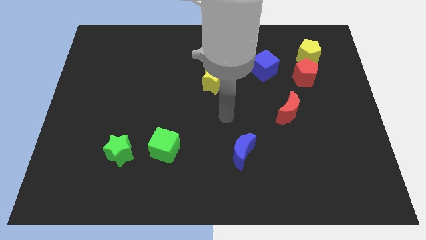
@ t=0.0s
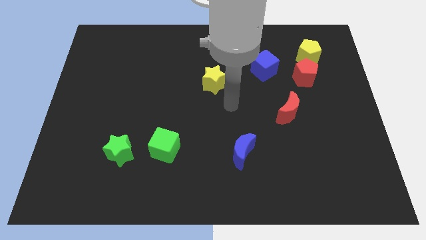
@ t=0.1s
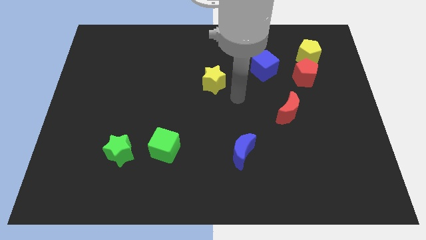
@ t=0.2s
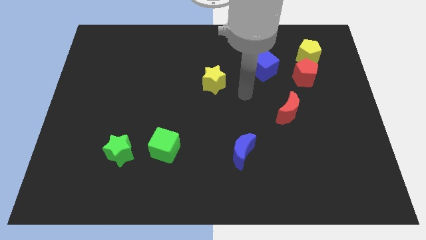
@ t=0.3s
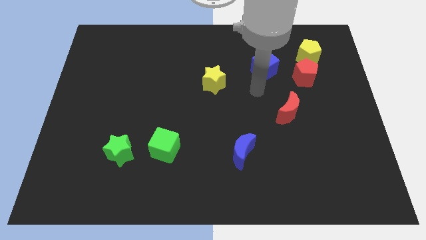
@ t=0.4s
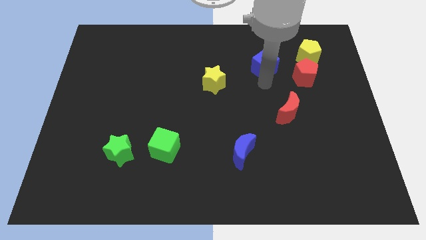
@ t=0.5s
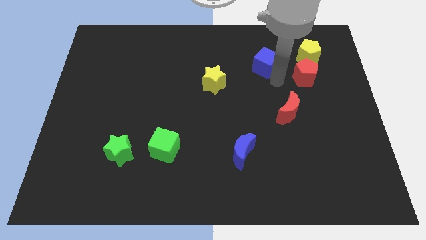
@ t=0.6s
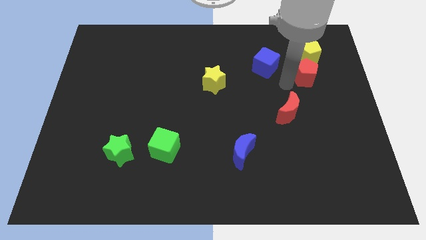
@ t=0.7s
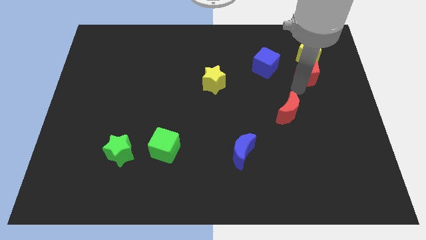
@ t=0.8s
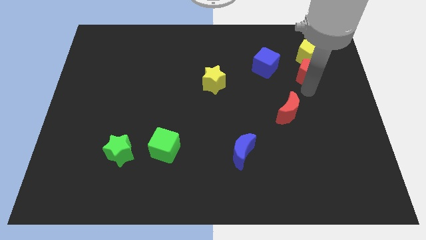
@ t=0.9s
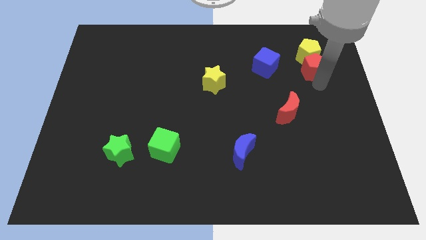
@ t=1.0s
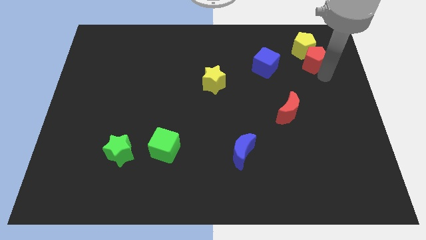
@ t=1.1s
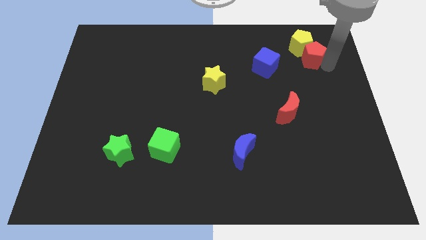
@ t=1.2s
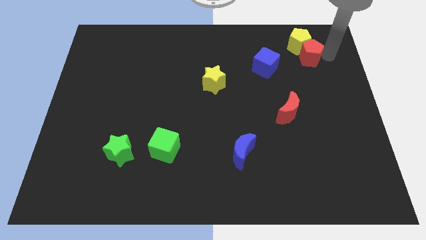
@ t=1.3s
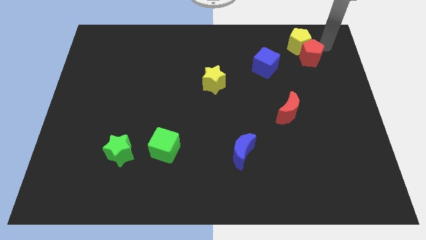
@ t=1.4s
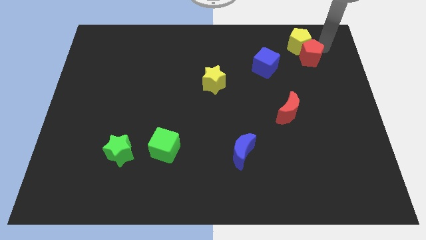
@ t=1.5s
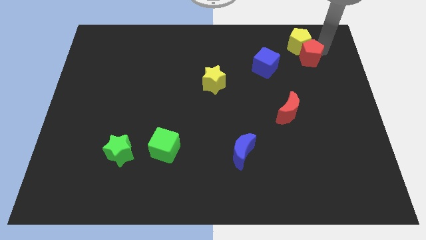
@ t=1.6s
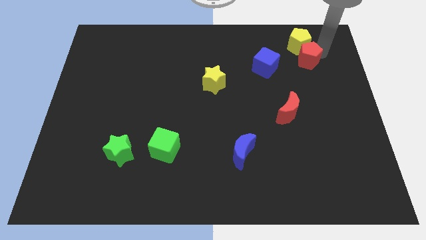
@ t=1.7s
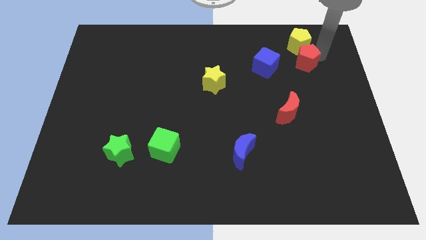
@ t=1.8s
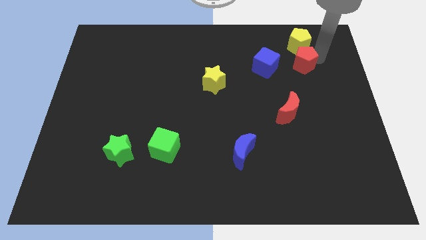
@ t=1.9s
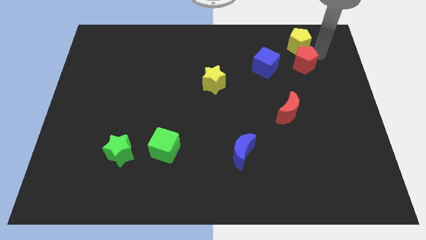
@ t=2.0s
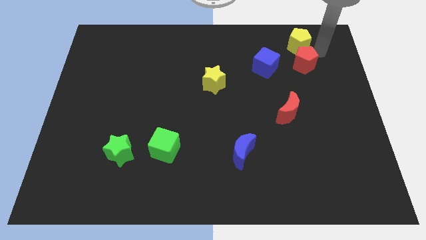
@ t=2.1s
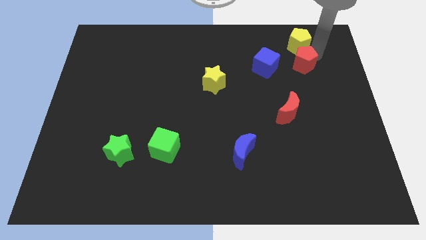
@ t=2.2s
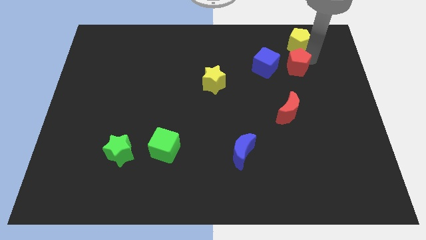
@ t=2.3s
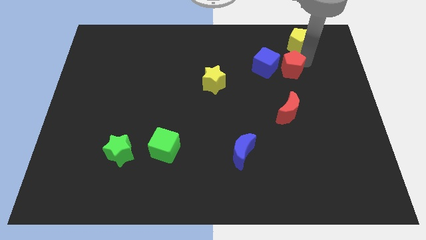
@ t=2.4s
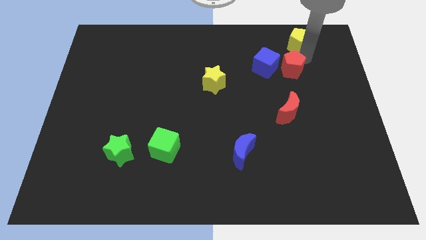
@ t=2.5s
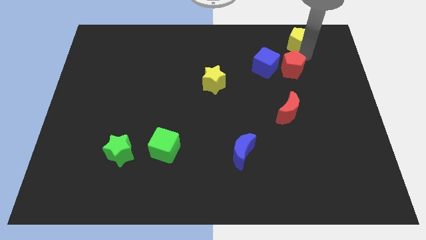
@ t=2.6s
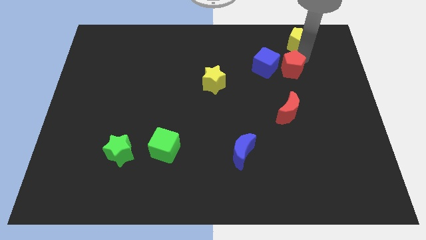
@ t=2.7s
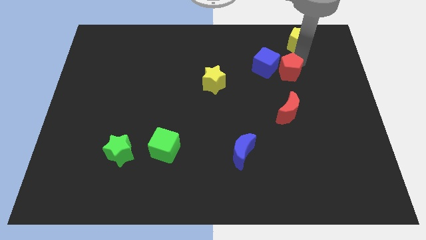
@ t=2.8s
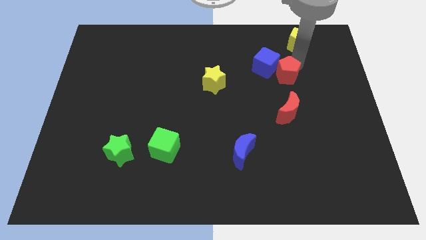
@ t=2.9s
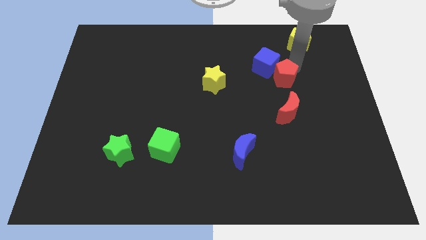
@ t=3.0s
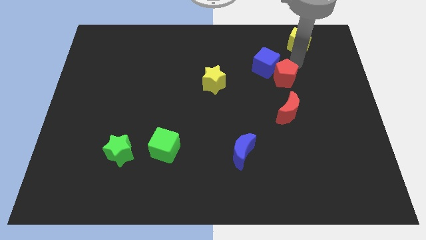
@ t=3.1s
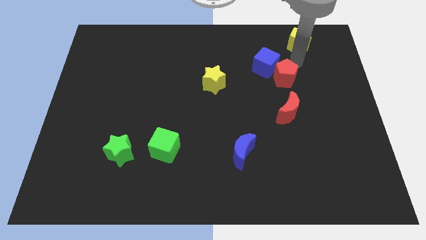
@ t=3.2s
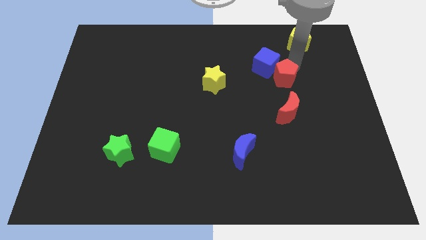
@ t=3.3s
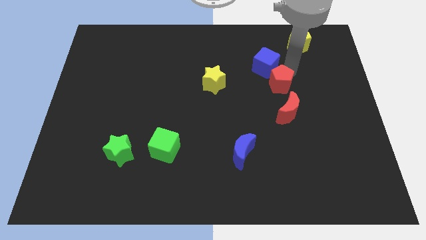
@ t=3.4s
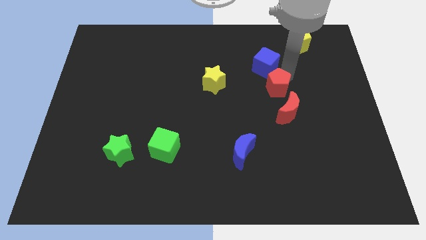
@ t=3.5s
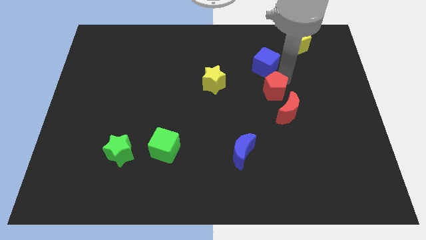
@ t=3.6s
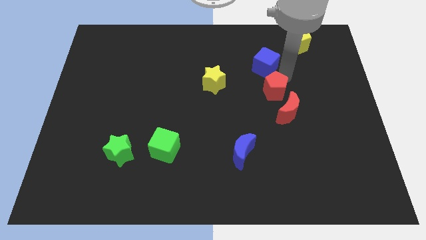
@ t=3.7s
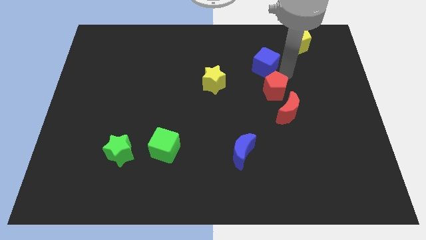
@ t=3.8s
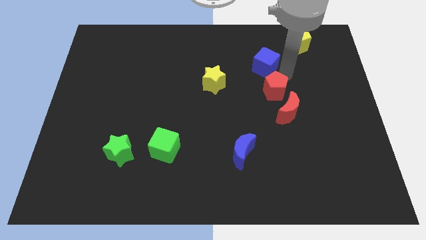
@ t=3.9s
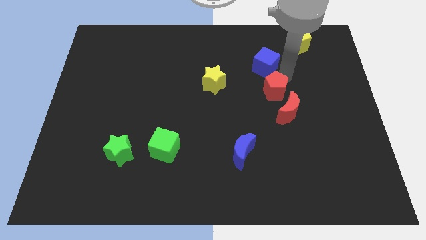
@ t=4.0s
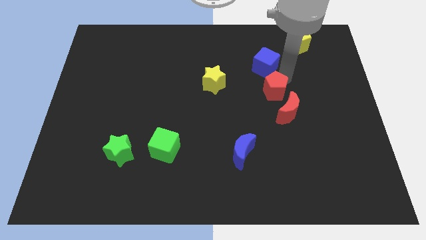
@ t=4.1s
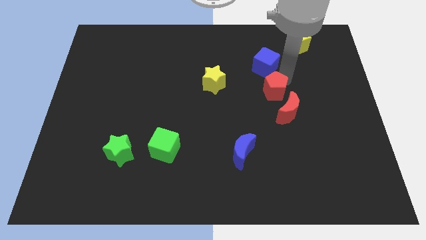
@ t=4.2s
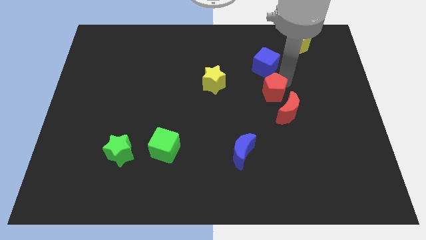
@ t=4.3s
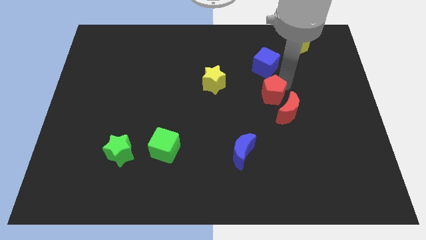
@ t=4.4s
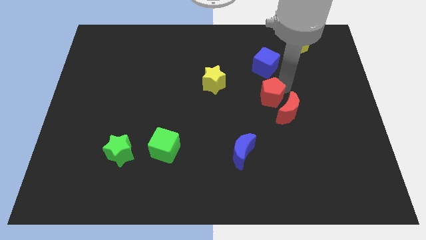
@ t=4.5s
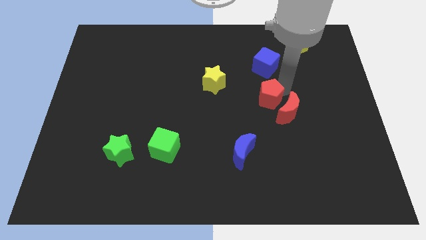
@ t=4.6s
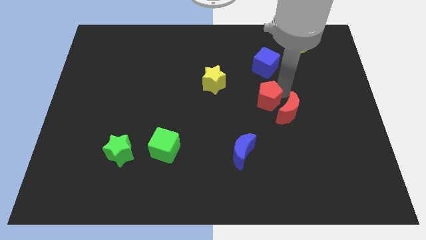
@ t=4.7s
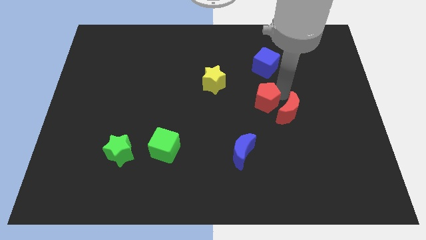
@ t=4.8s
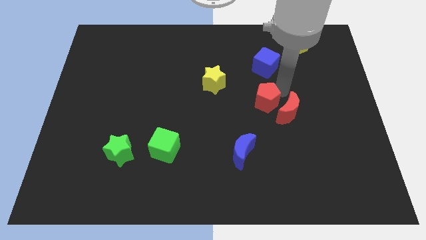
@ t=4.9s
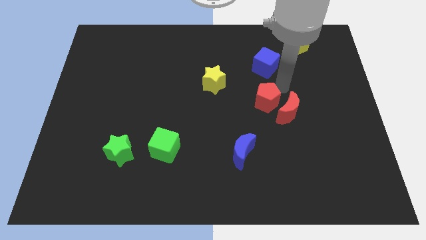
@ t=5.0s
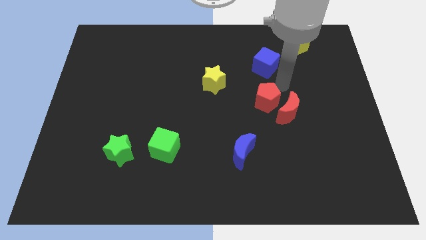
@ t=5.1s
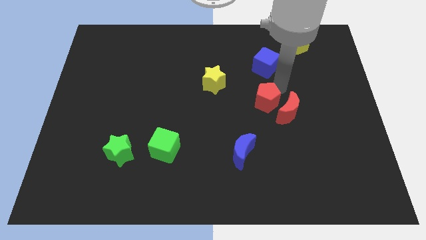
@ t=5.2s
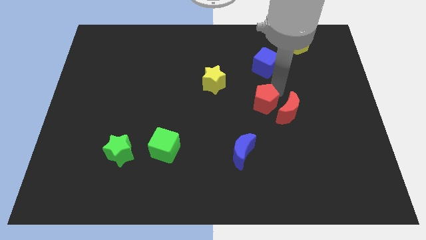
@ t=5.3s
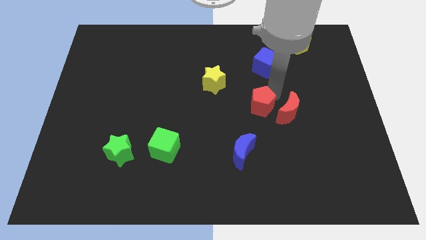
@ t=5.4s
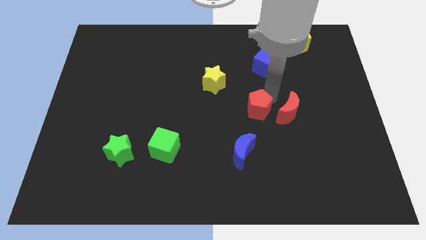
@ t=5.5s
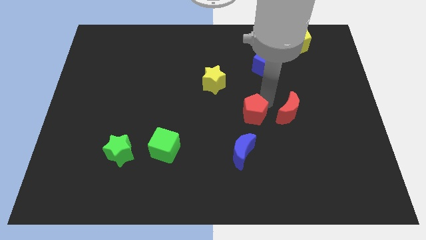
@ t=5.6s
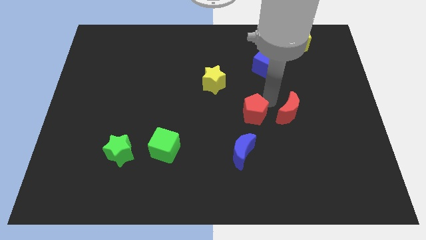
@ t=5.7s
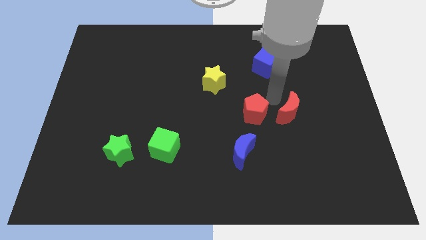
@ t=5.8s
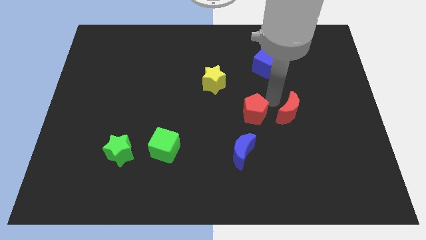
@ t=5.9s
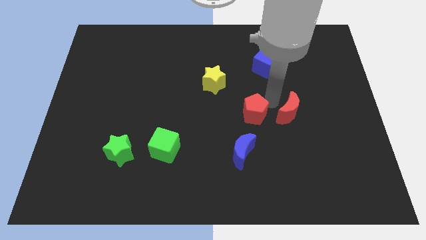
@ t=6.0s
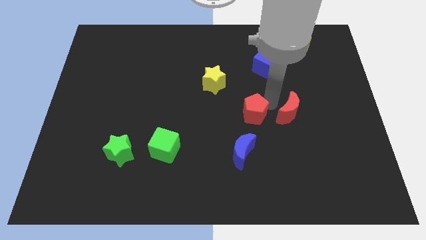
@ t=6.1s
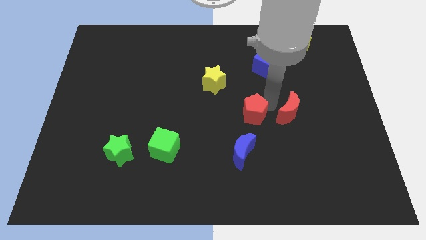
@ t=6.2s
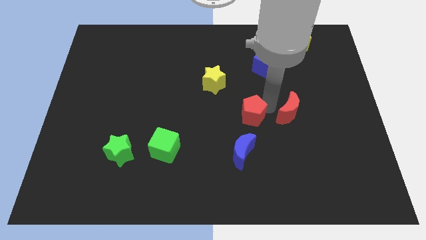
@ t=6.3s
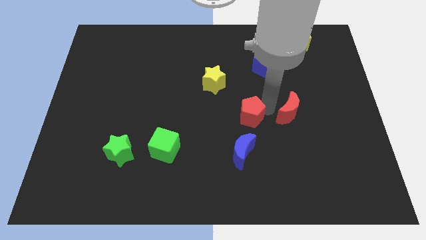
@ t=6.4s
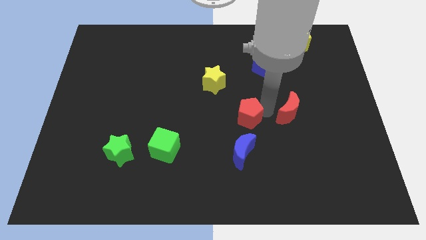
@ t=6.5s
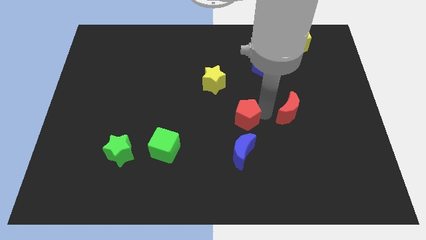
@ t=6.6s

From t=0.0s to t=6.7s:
move the red pentagon downwards and to the left diagonally

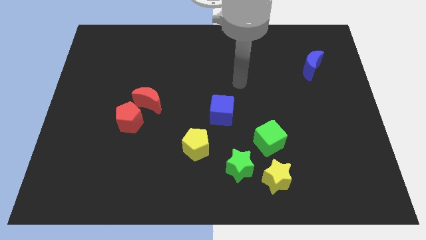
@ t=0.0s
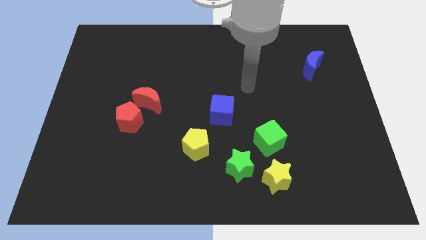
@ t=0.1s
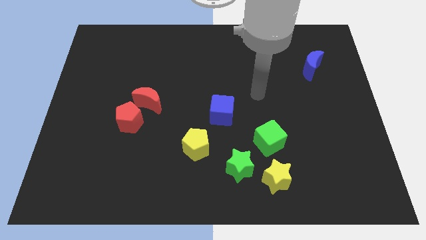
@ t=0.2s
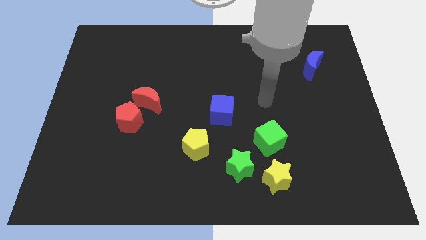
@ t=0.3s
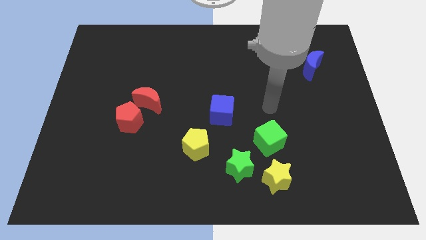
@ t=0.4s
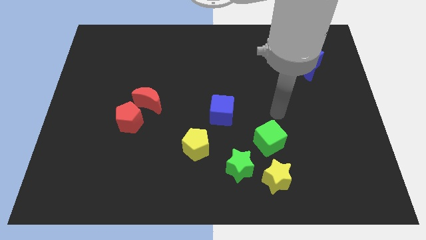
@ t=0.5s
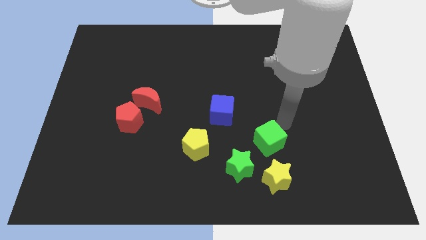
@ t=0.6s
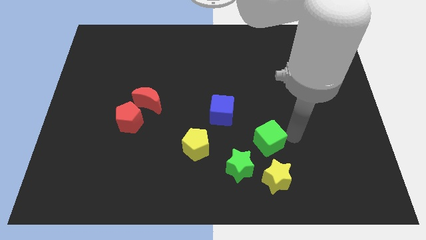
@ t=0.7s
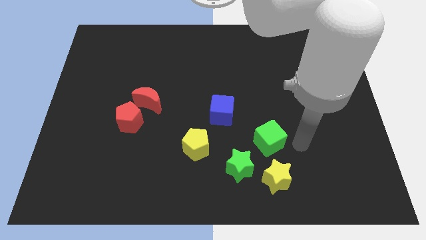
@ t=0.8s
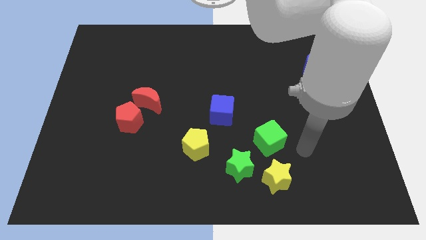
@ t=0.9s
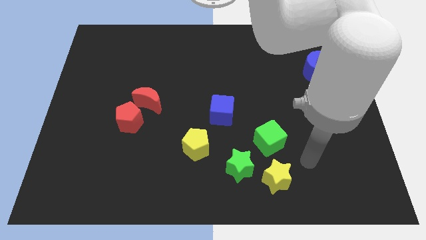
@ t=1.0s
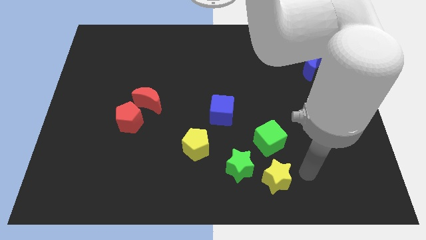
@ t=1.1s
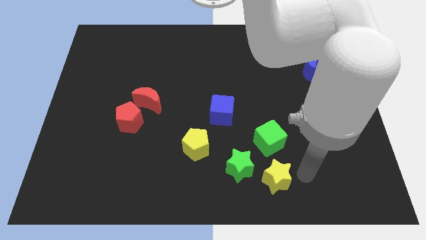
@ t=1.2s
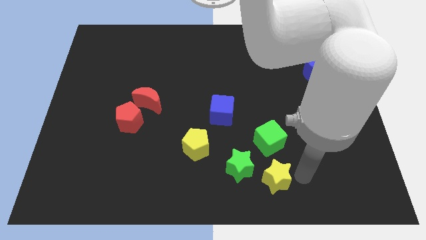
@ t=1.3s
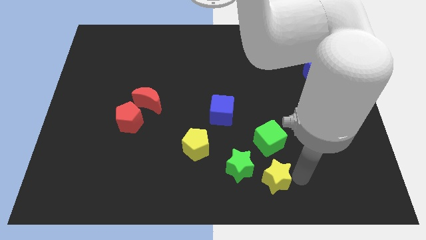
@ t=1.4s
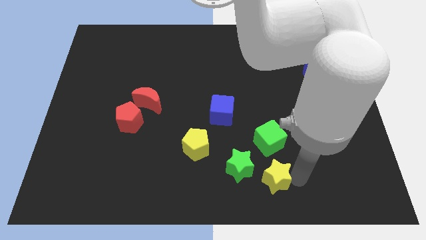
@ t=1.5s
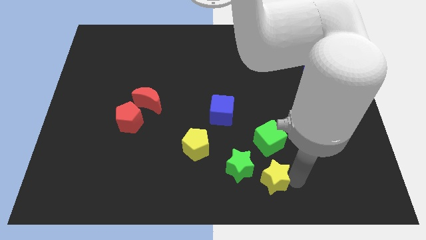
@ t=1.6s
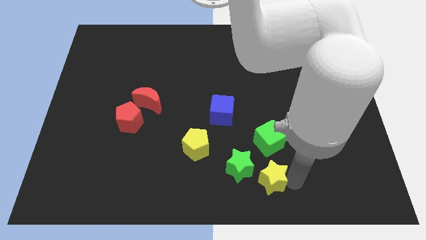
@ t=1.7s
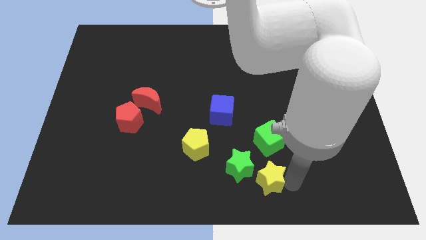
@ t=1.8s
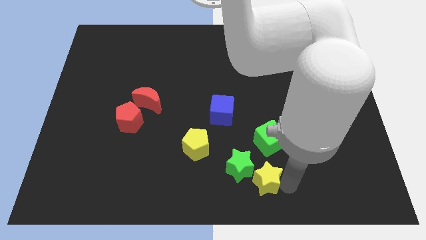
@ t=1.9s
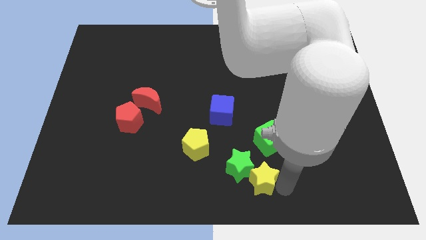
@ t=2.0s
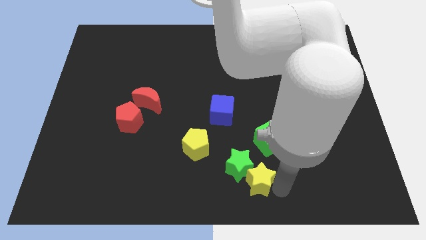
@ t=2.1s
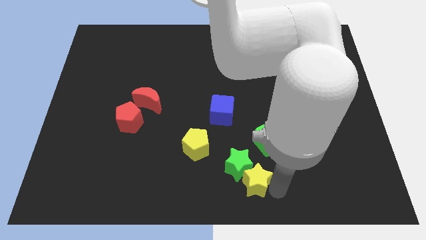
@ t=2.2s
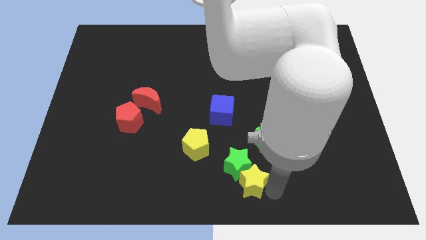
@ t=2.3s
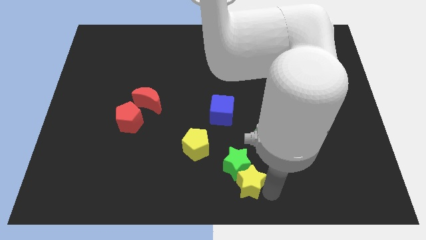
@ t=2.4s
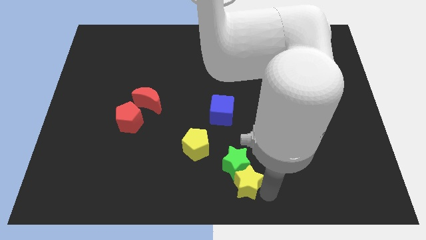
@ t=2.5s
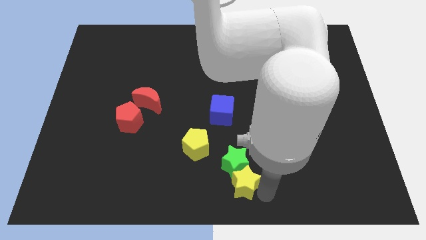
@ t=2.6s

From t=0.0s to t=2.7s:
move the yellow star somewhat left
